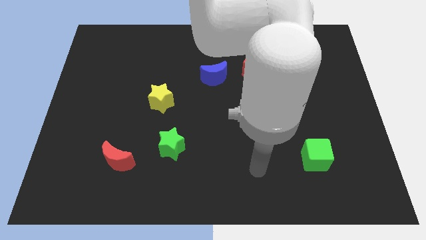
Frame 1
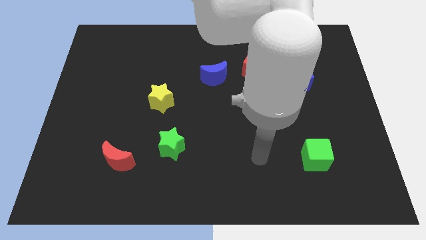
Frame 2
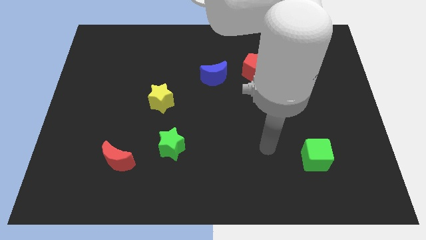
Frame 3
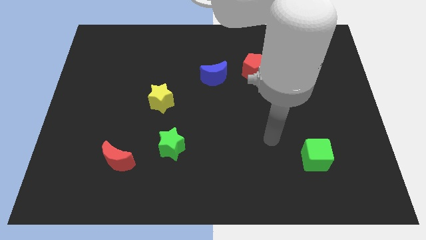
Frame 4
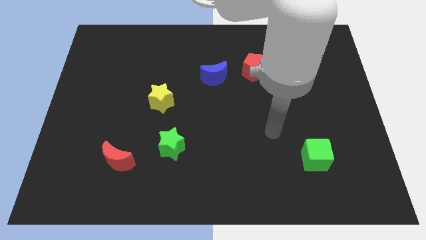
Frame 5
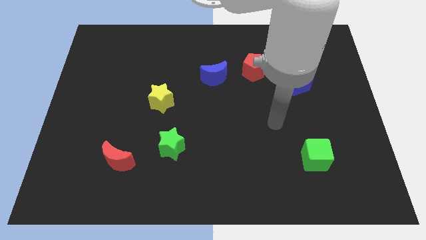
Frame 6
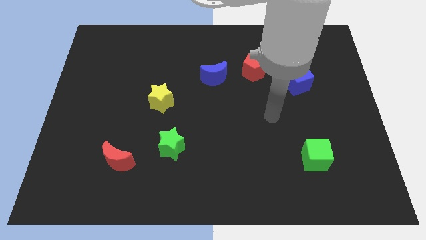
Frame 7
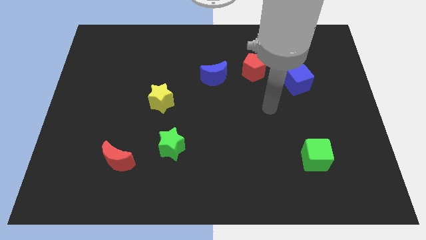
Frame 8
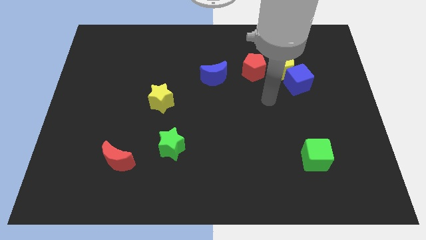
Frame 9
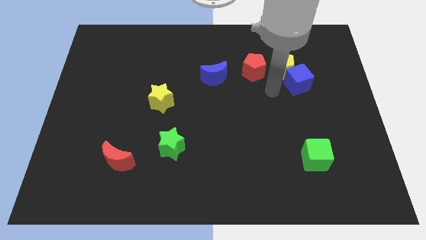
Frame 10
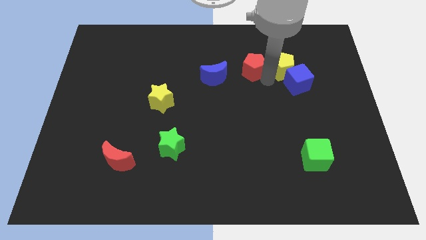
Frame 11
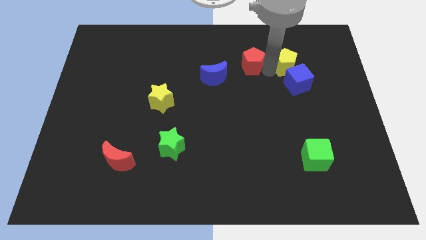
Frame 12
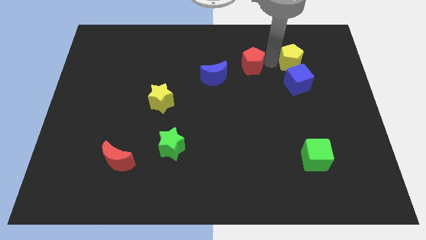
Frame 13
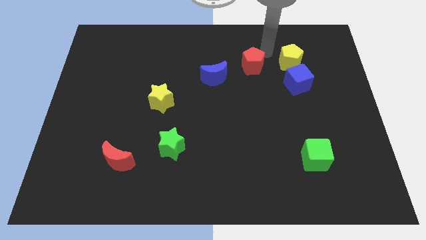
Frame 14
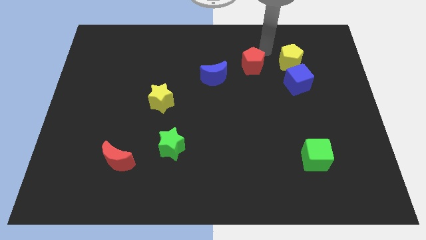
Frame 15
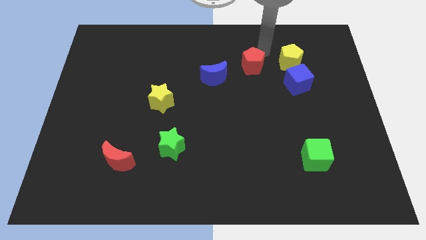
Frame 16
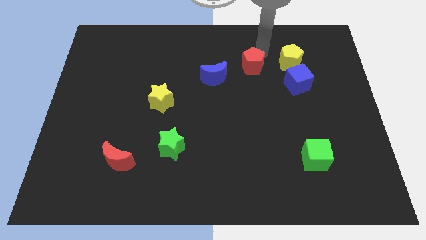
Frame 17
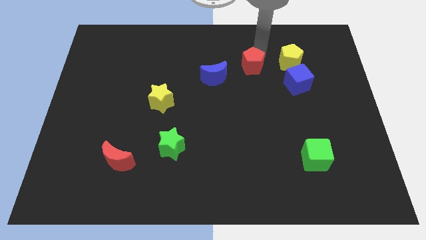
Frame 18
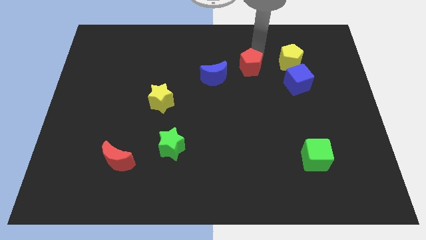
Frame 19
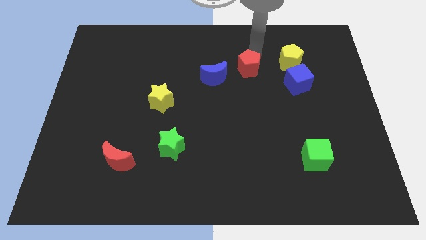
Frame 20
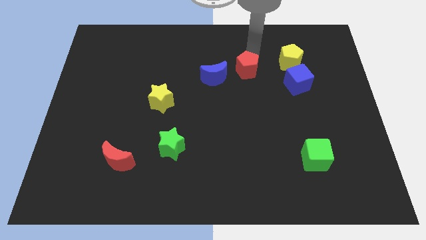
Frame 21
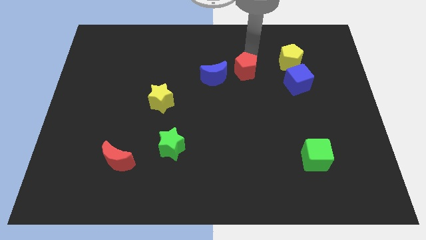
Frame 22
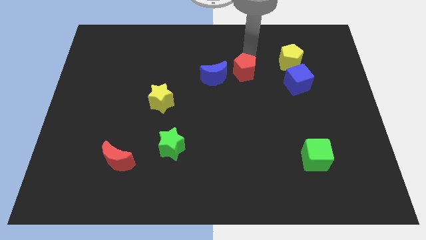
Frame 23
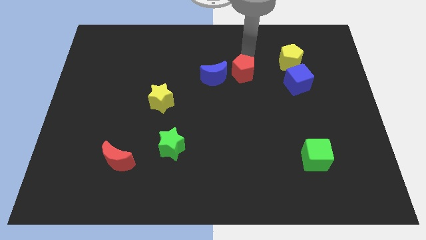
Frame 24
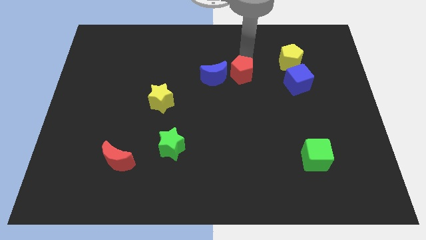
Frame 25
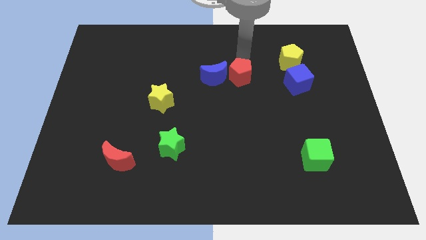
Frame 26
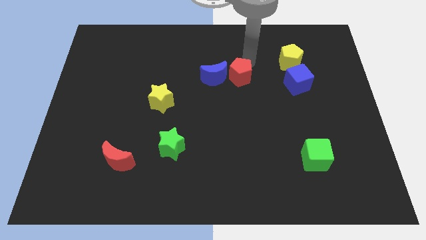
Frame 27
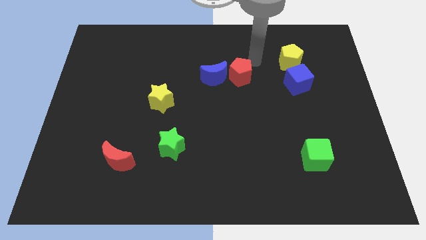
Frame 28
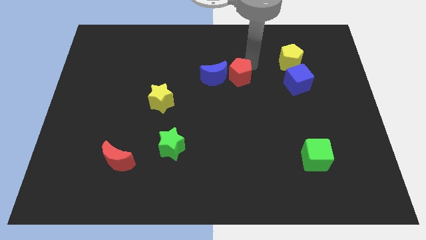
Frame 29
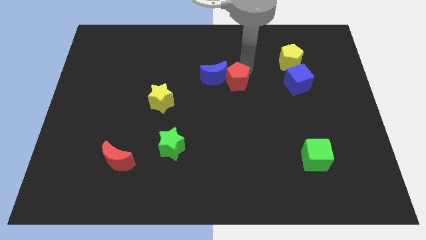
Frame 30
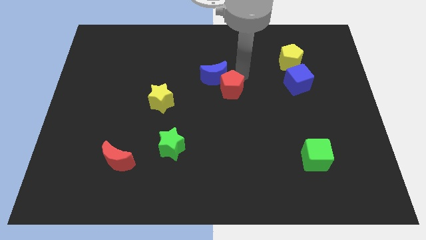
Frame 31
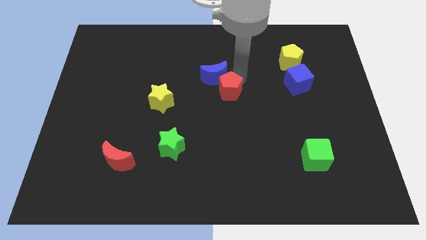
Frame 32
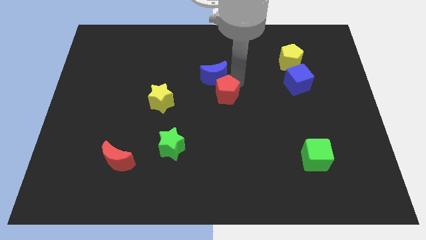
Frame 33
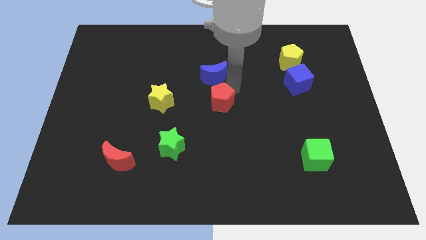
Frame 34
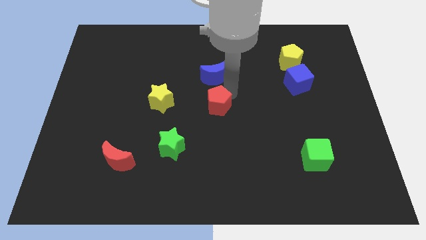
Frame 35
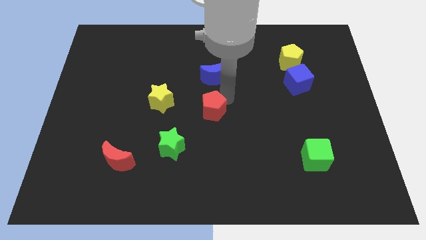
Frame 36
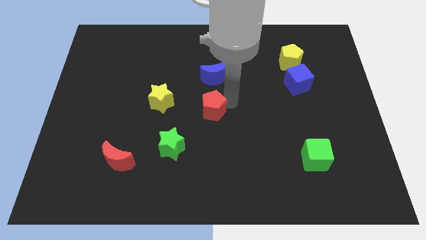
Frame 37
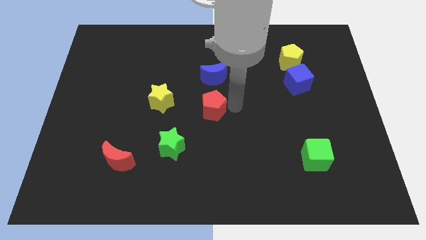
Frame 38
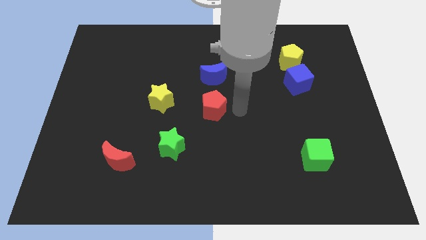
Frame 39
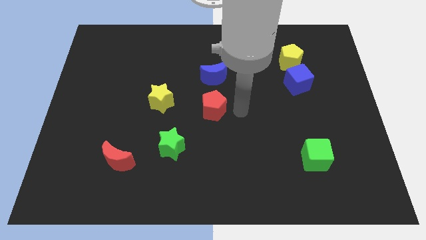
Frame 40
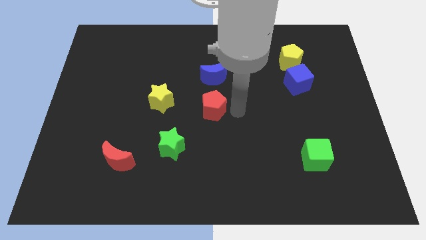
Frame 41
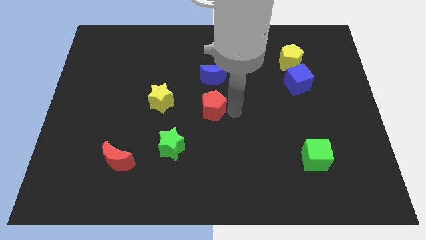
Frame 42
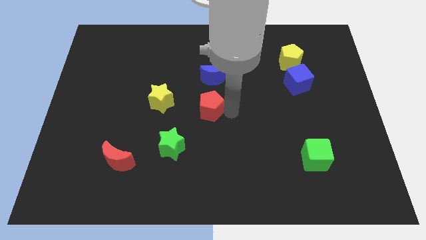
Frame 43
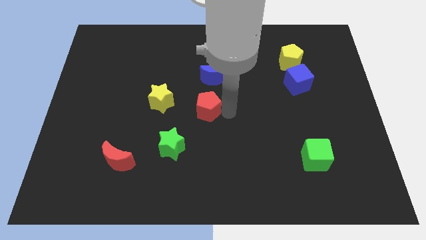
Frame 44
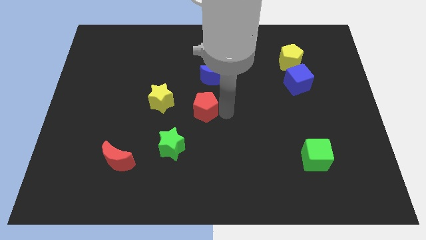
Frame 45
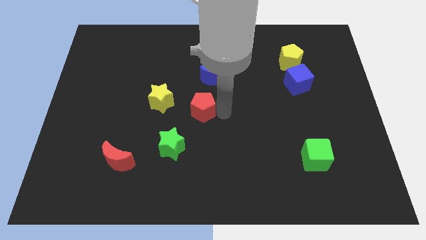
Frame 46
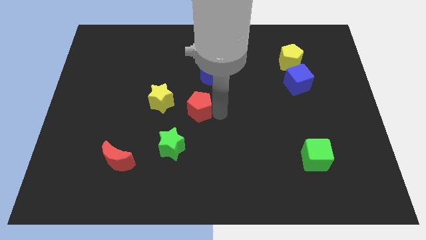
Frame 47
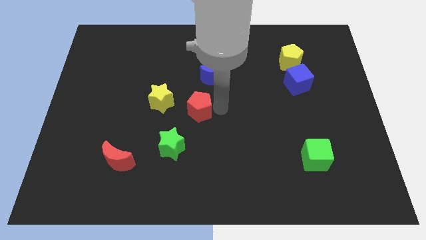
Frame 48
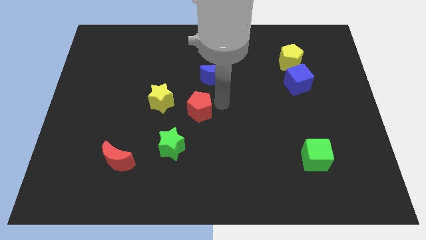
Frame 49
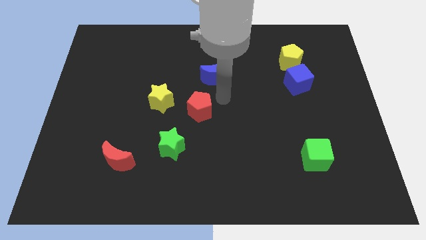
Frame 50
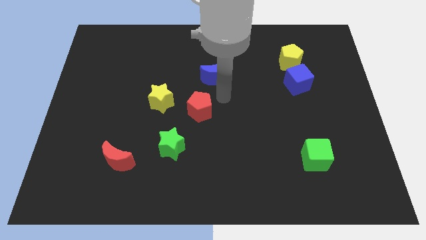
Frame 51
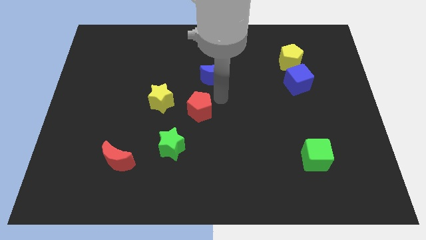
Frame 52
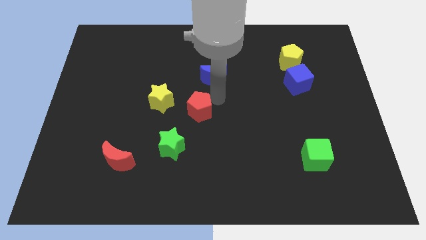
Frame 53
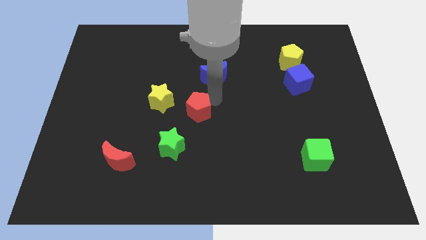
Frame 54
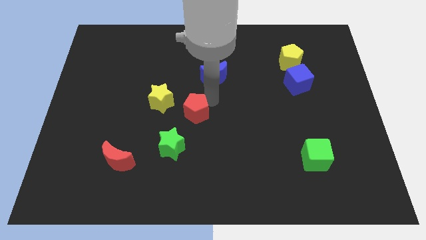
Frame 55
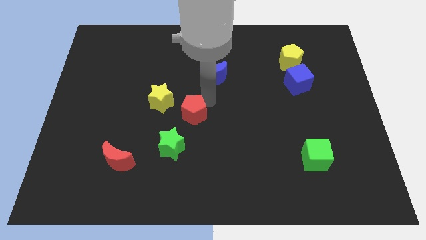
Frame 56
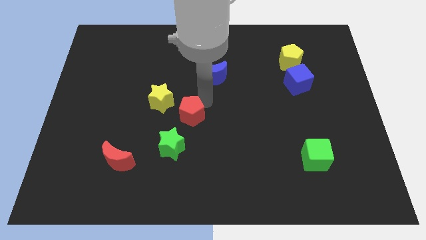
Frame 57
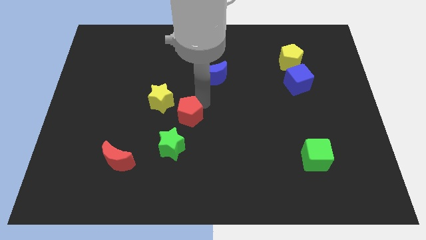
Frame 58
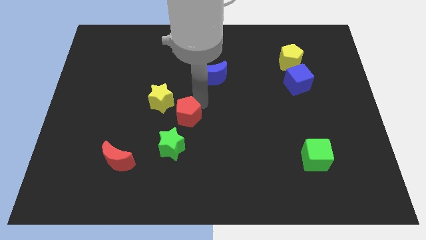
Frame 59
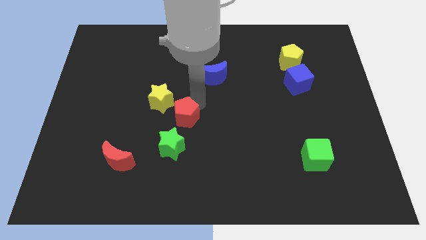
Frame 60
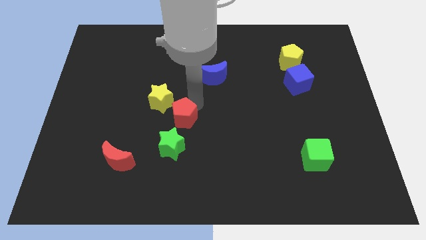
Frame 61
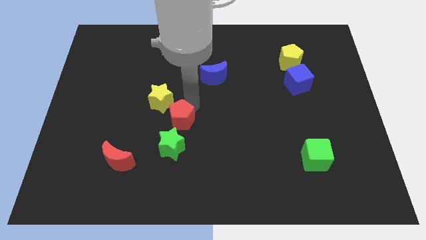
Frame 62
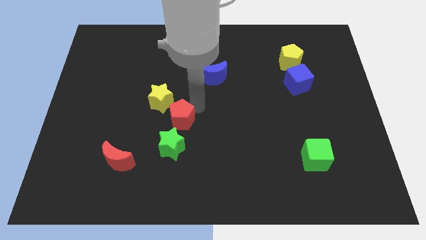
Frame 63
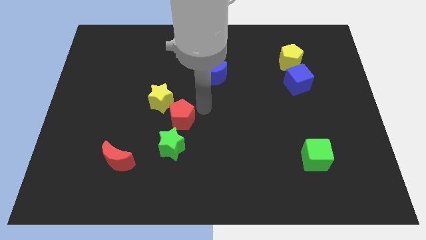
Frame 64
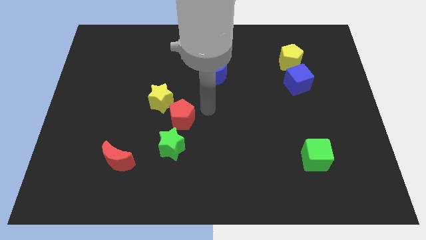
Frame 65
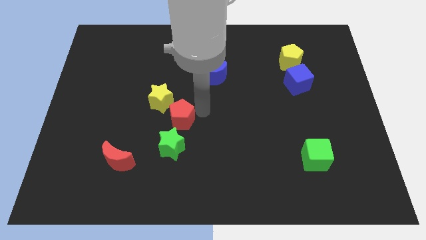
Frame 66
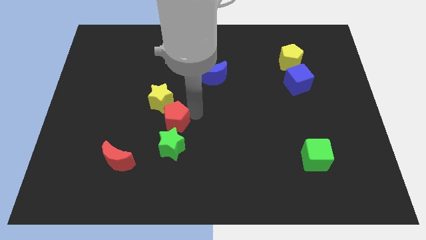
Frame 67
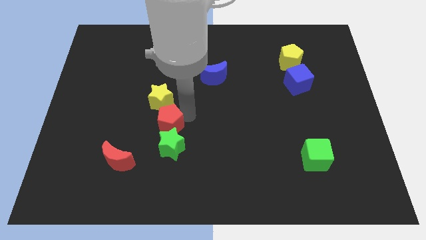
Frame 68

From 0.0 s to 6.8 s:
put the red pentagon diagonally up and to the left of the green star
